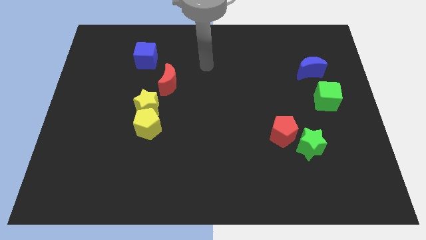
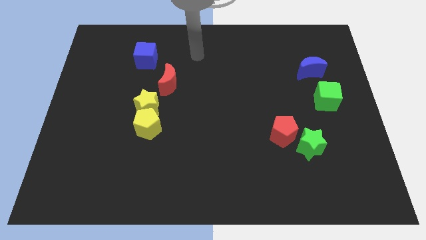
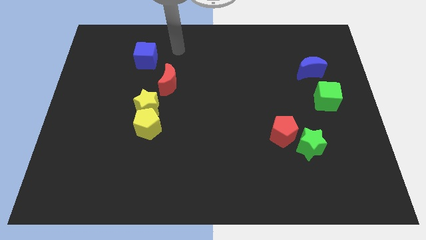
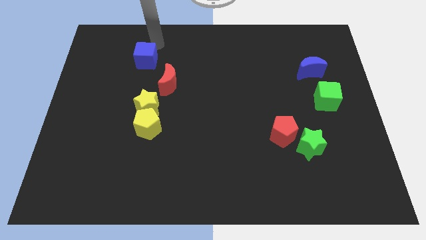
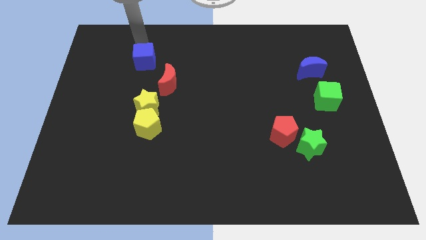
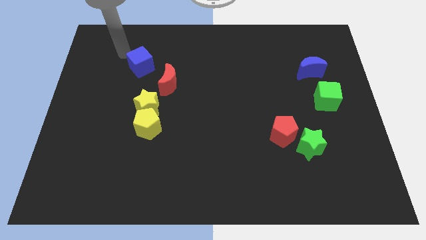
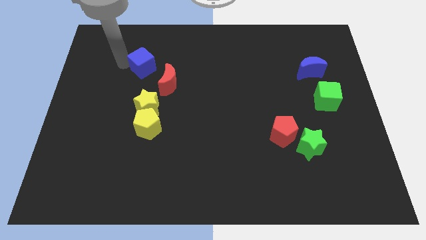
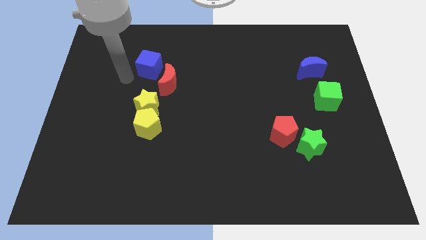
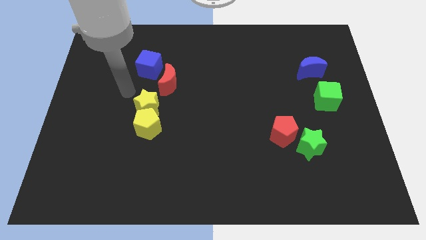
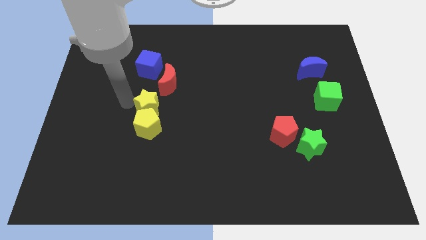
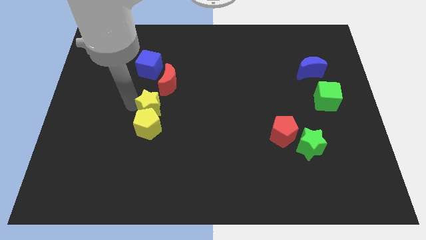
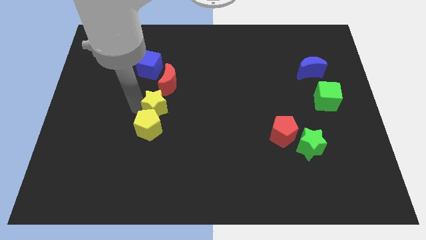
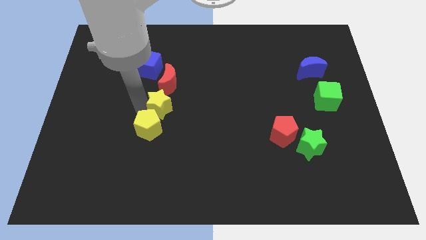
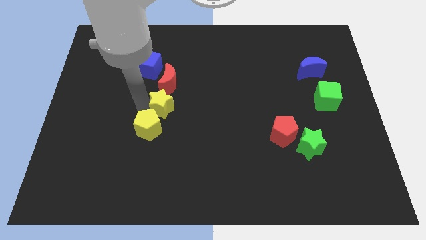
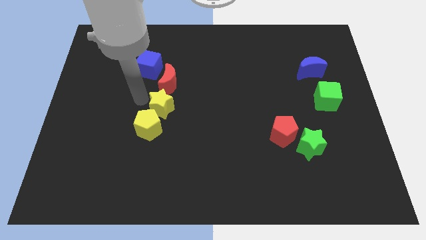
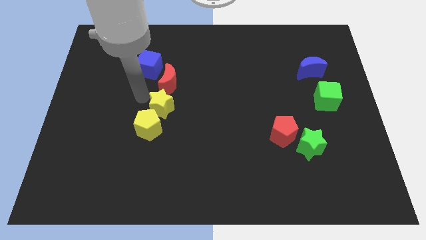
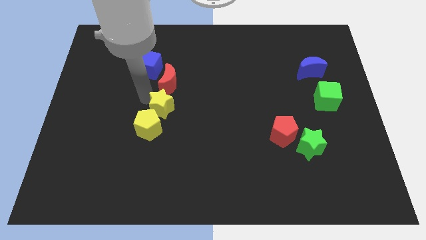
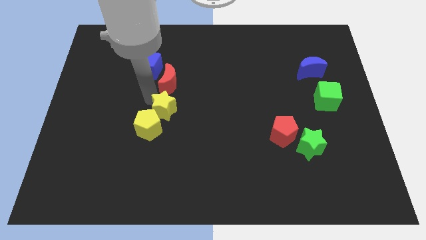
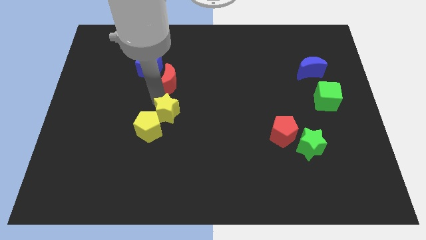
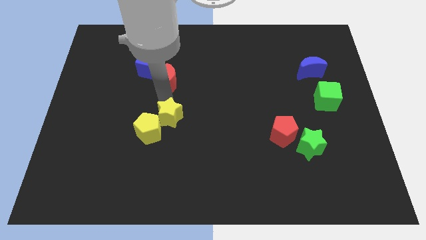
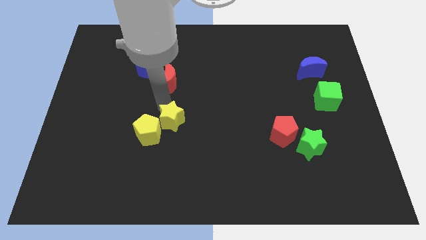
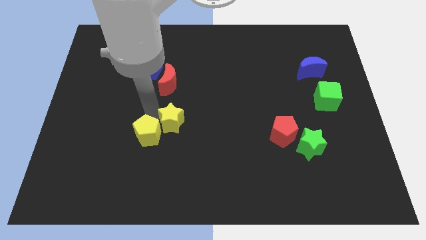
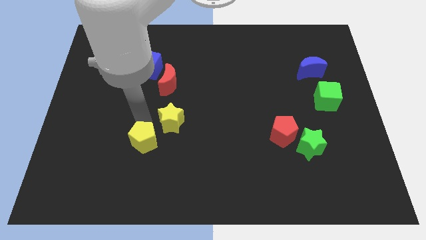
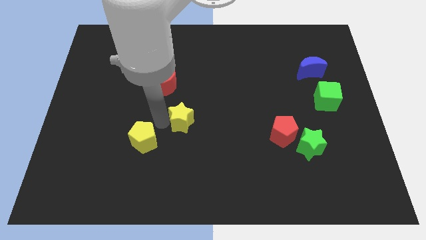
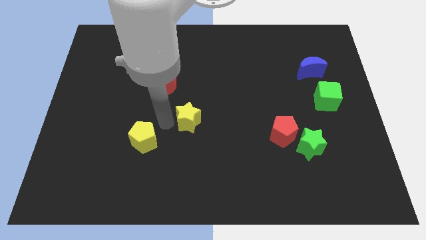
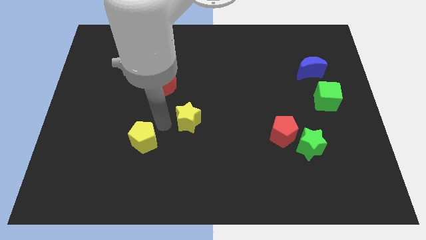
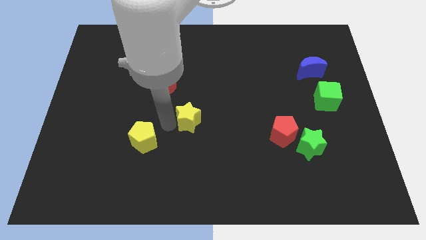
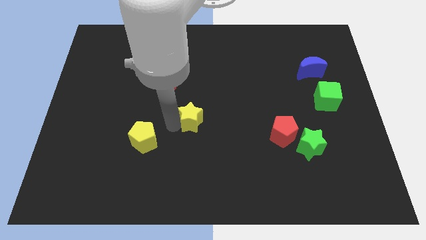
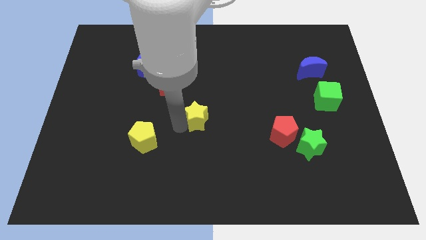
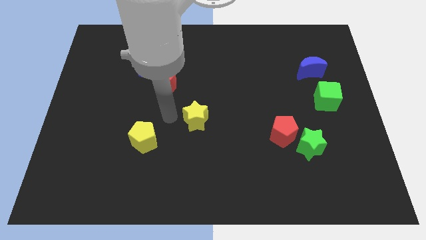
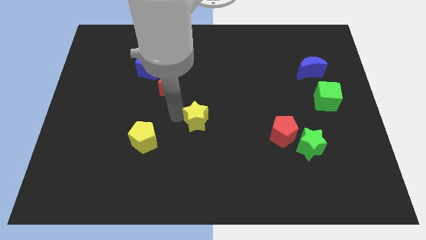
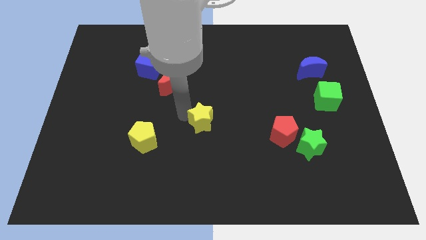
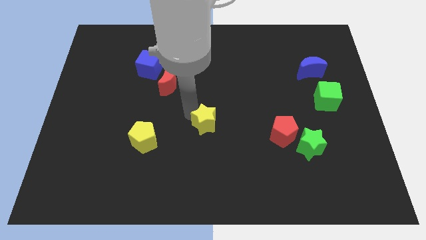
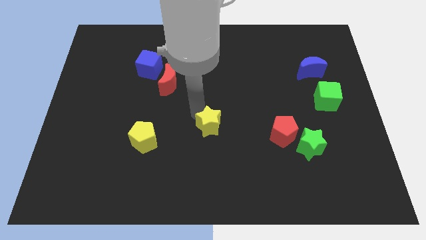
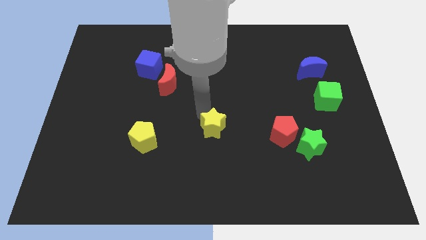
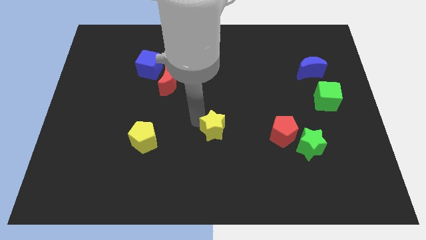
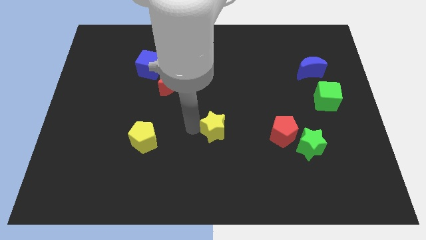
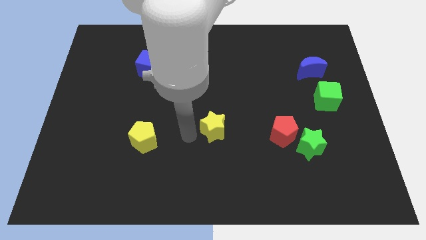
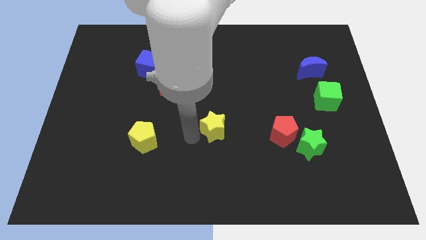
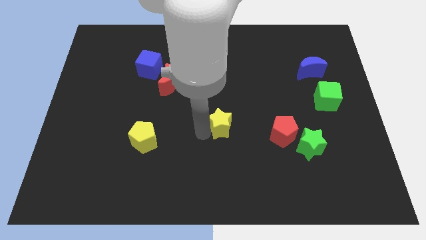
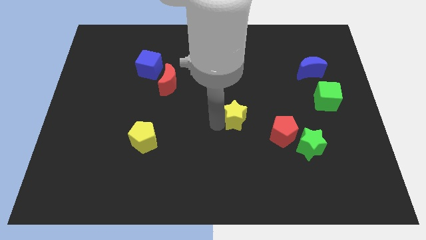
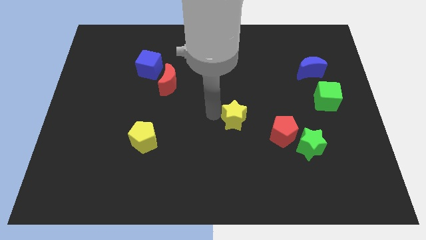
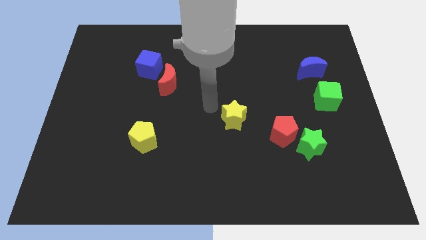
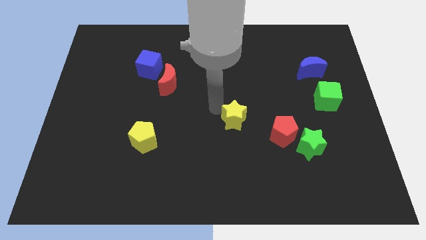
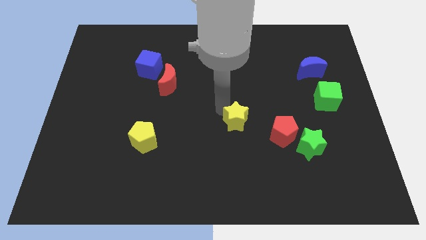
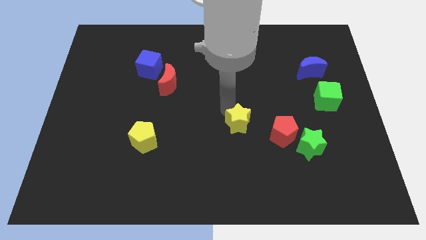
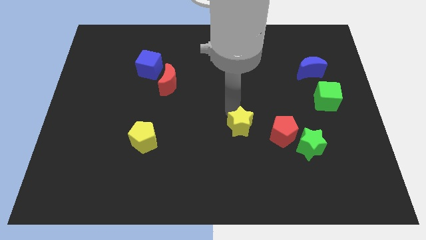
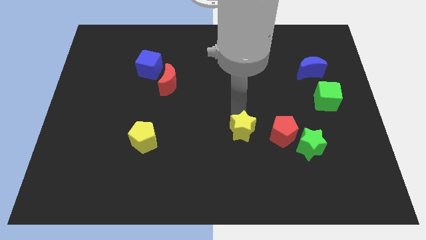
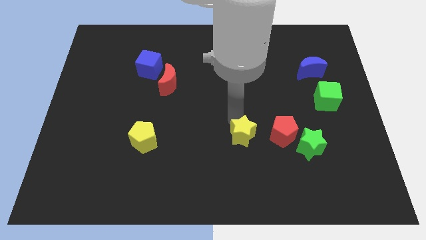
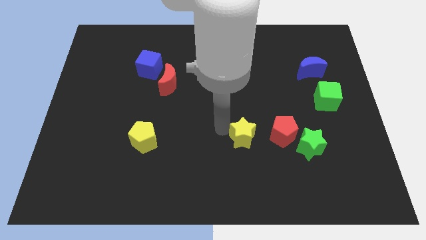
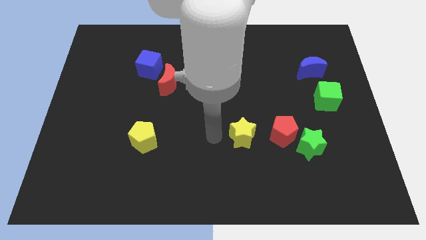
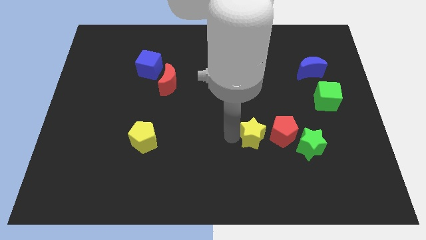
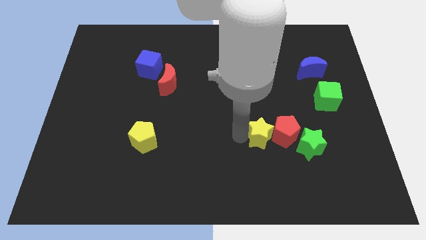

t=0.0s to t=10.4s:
slide the yellow star towards the red pentagon

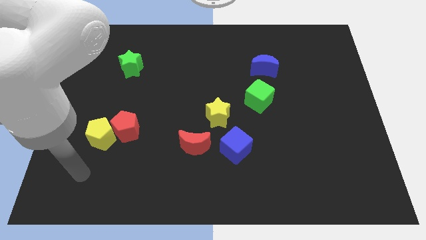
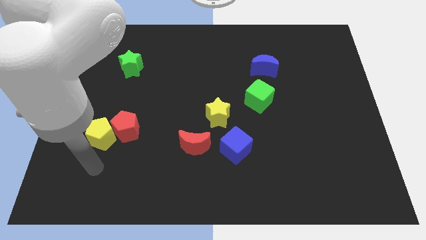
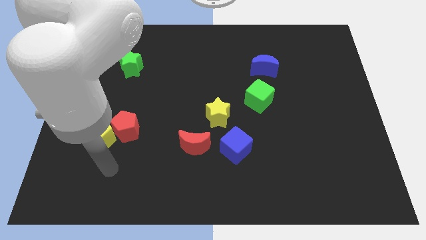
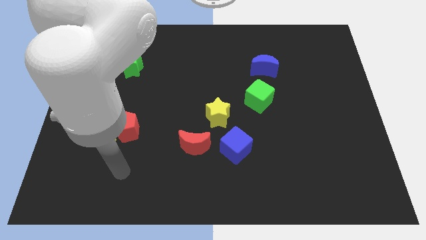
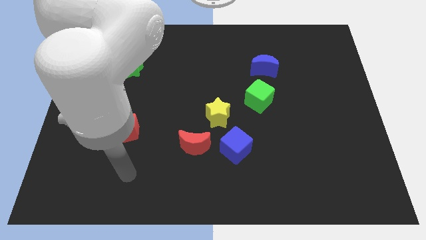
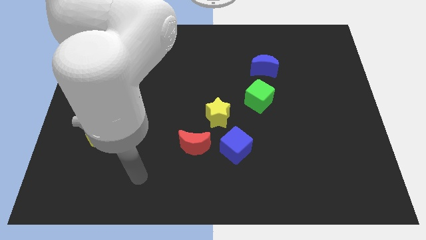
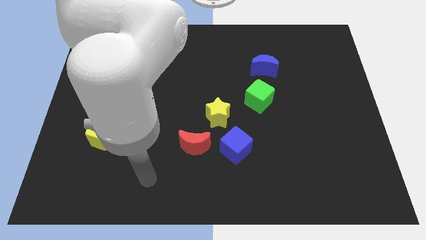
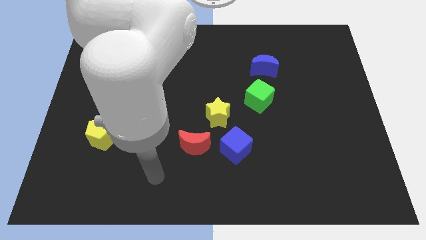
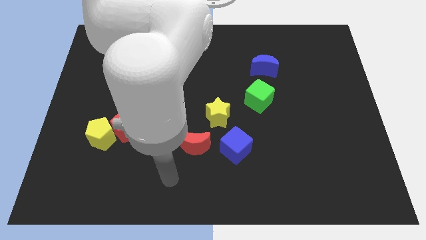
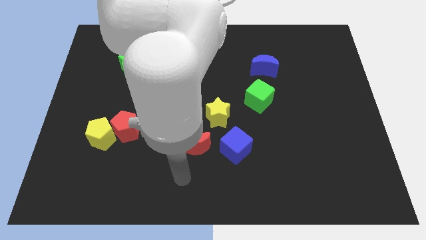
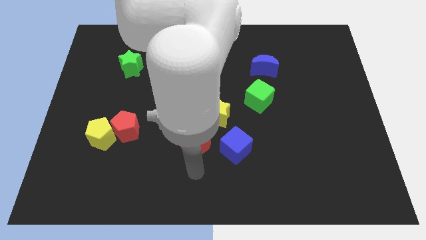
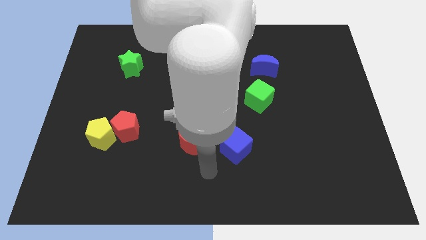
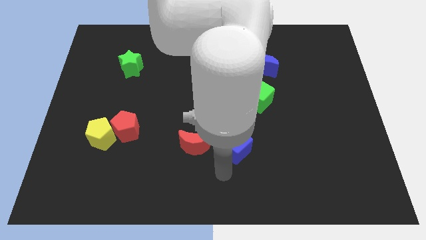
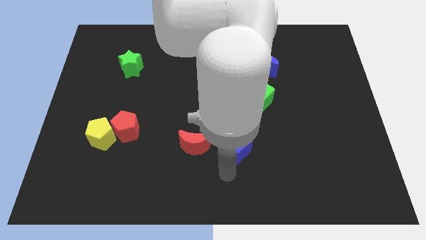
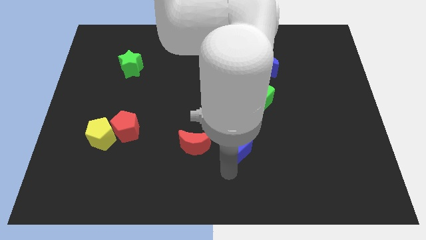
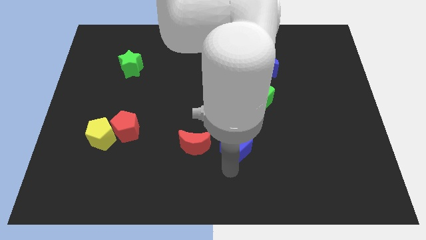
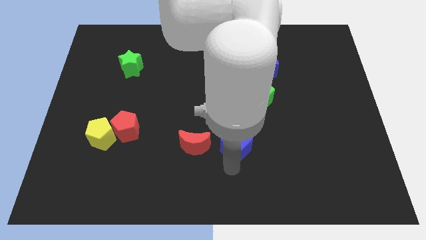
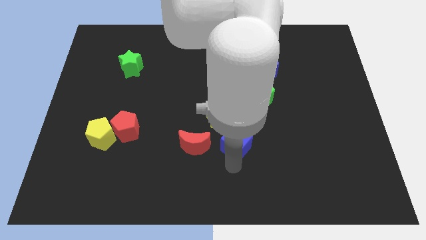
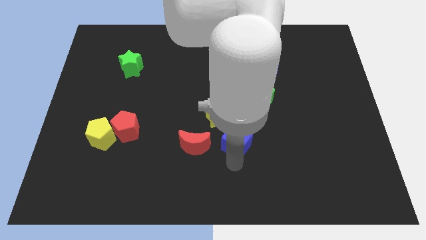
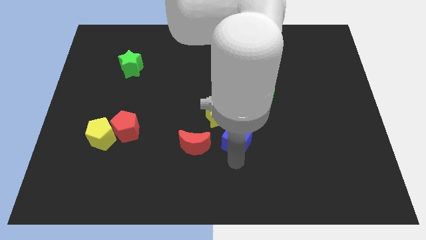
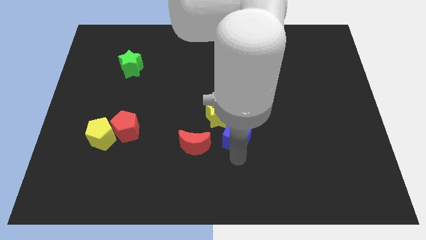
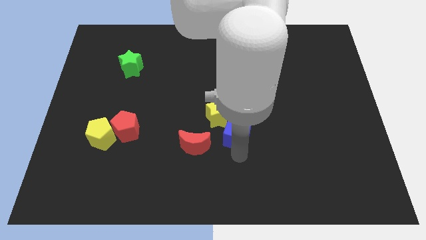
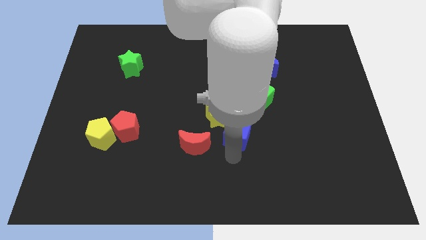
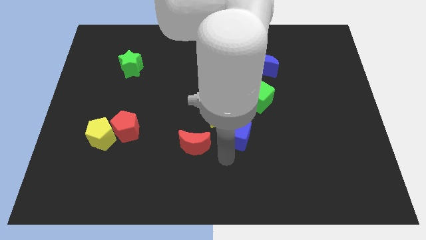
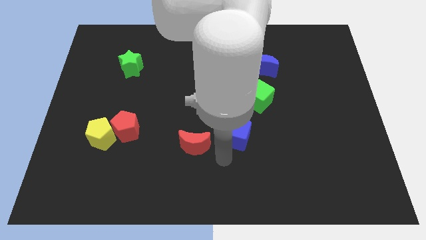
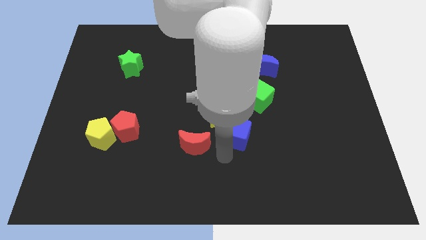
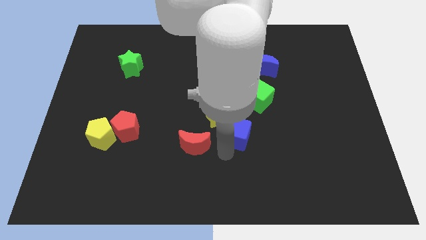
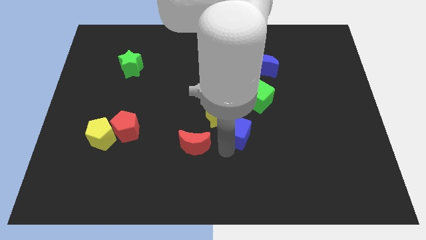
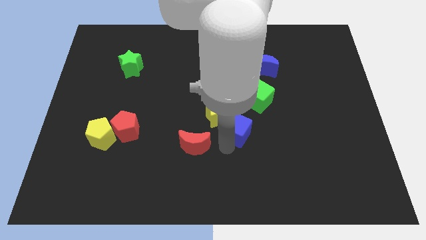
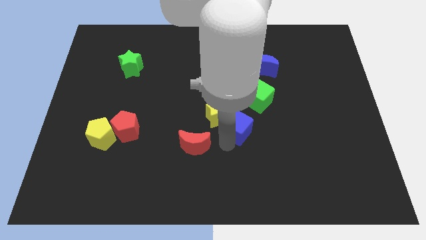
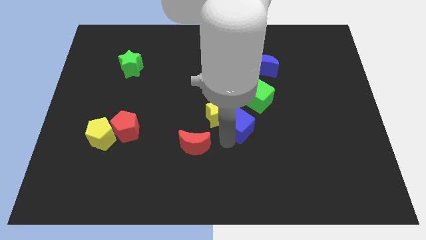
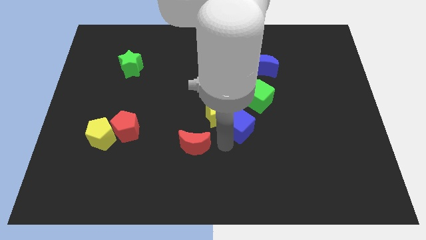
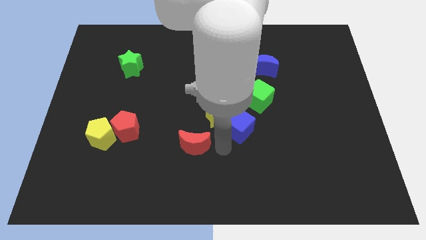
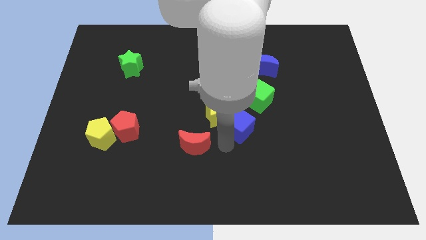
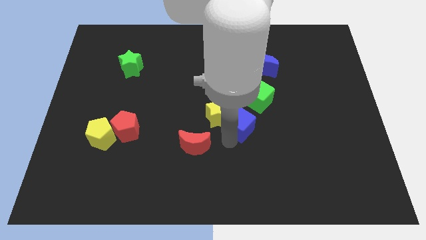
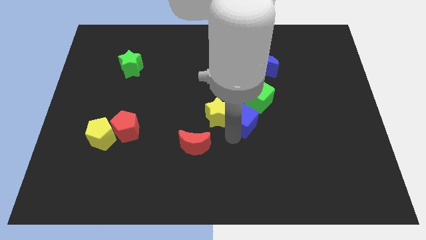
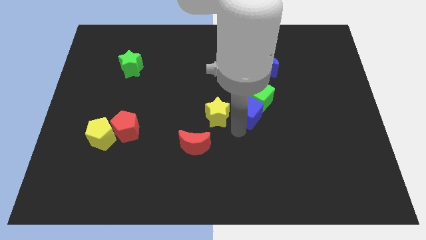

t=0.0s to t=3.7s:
slide the blue cube towards the green cube
